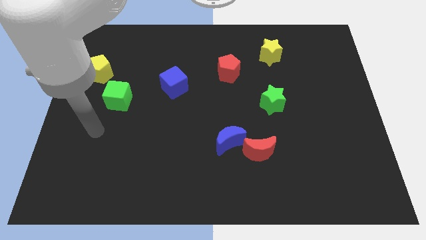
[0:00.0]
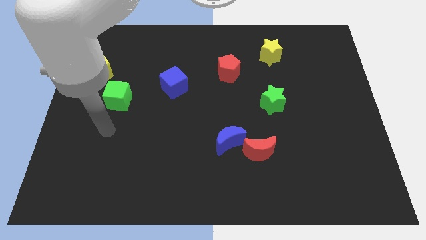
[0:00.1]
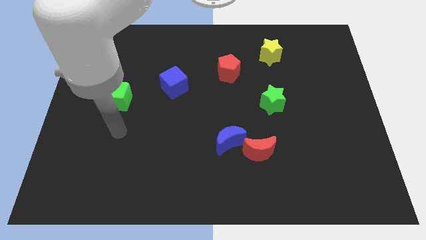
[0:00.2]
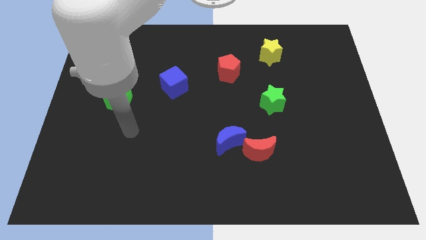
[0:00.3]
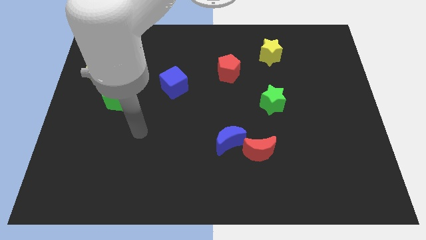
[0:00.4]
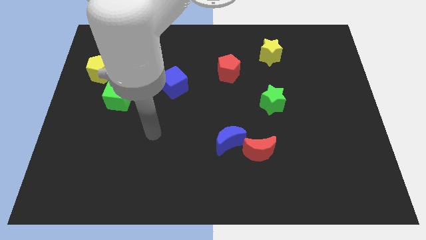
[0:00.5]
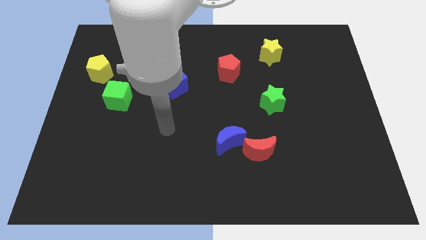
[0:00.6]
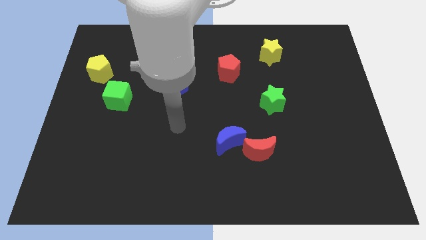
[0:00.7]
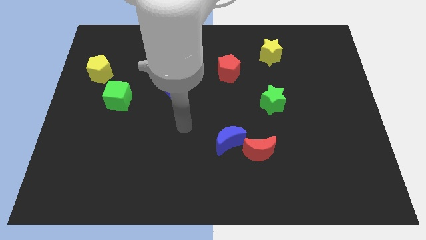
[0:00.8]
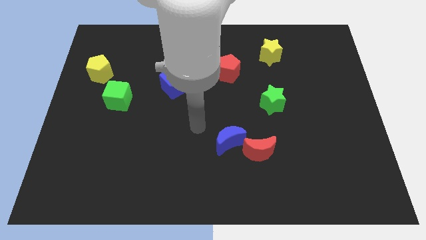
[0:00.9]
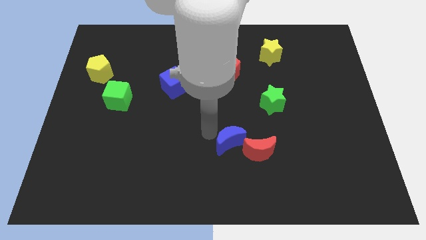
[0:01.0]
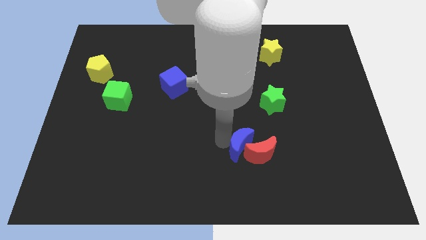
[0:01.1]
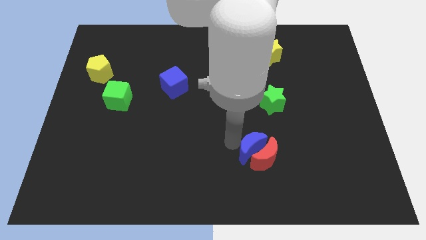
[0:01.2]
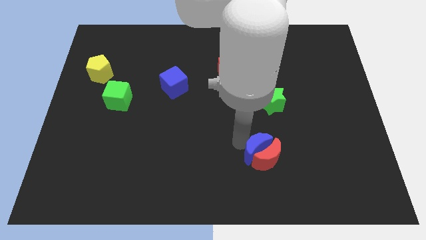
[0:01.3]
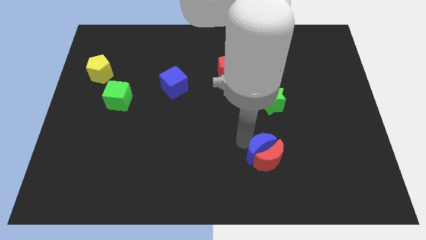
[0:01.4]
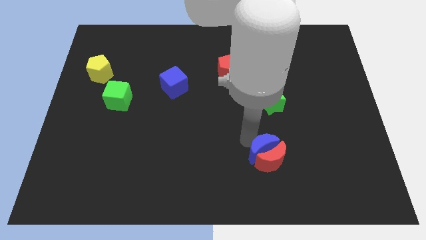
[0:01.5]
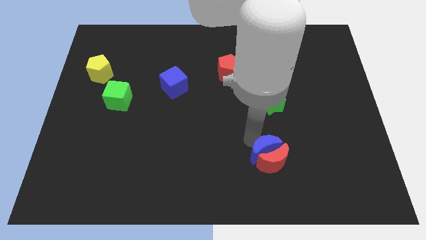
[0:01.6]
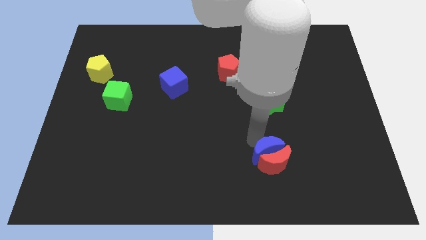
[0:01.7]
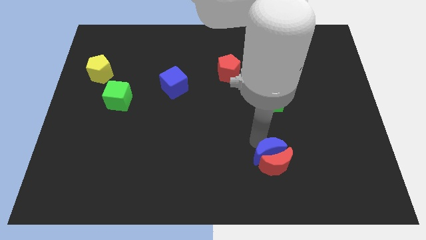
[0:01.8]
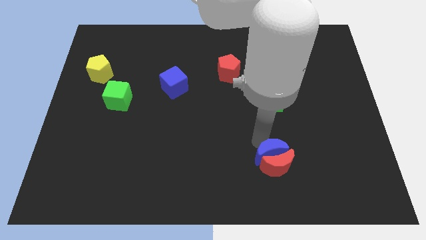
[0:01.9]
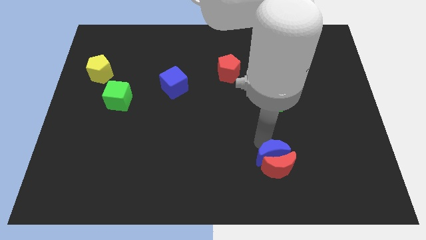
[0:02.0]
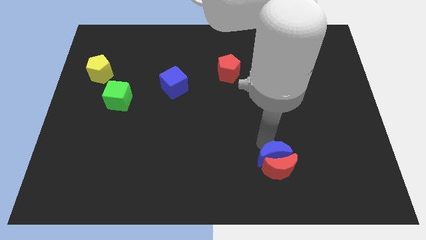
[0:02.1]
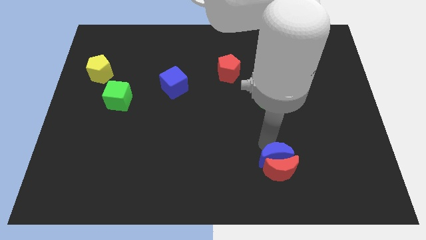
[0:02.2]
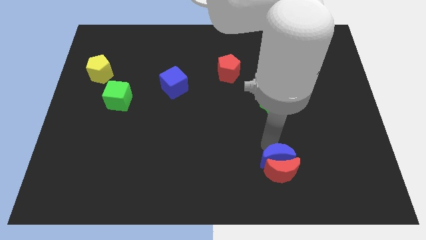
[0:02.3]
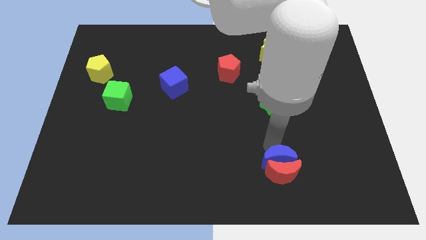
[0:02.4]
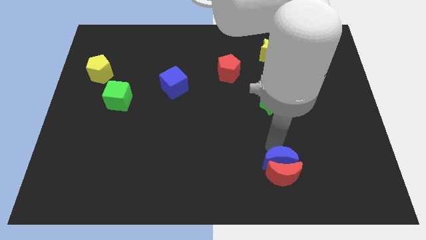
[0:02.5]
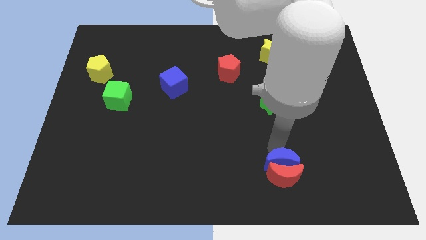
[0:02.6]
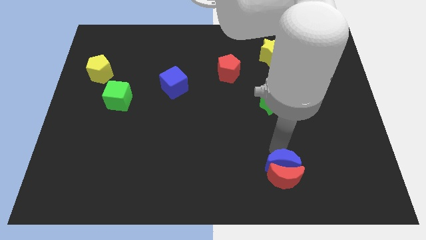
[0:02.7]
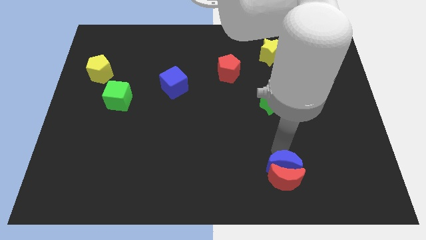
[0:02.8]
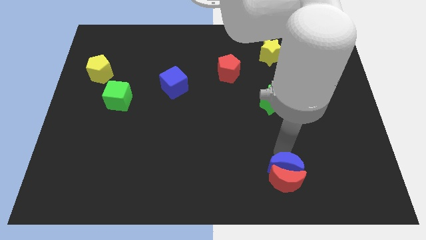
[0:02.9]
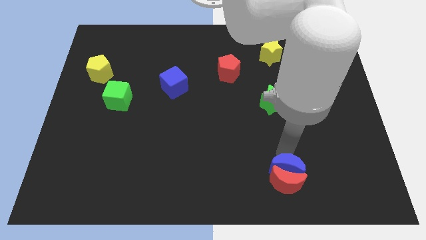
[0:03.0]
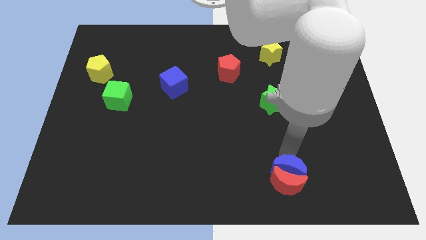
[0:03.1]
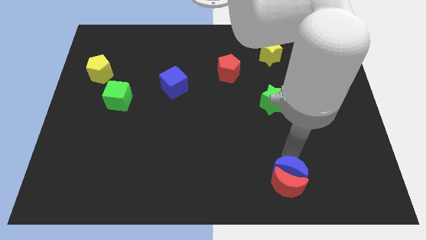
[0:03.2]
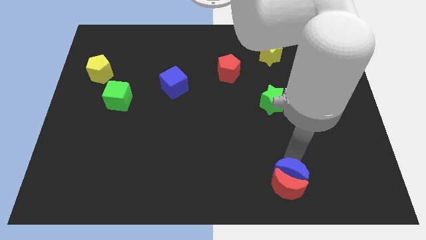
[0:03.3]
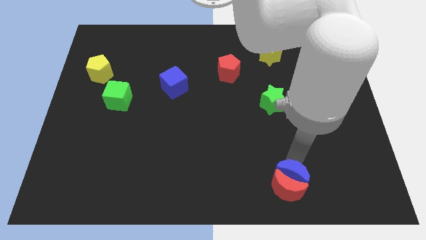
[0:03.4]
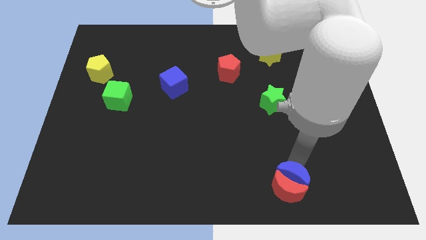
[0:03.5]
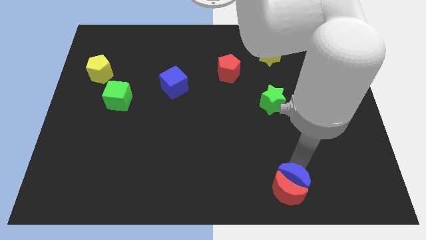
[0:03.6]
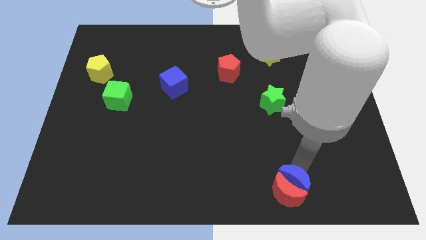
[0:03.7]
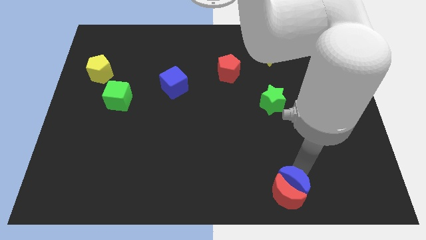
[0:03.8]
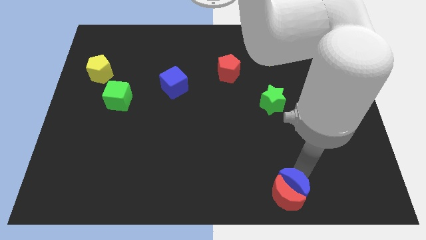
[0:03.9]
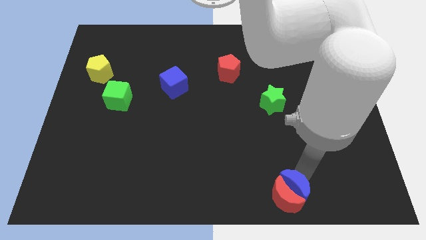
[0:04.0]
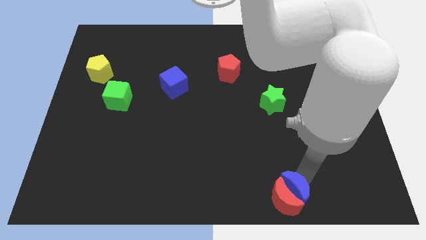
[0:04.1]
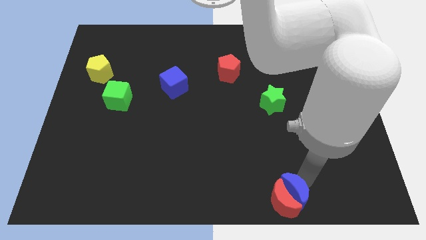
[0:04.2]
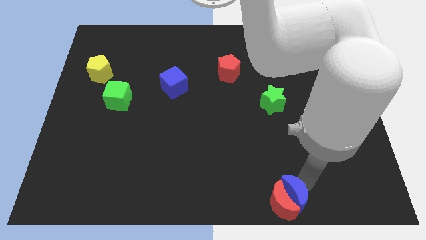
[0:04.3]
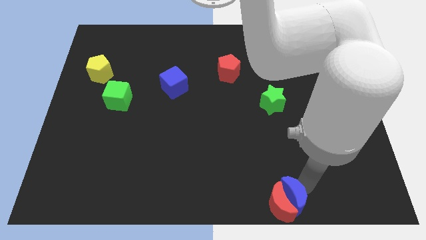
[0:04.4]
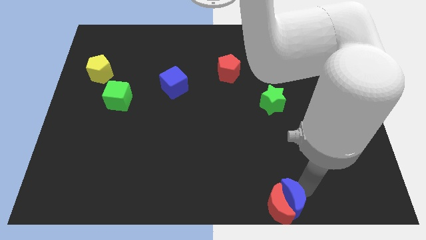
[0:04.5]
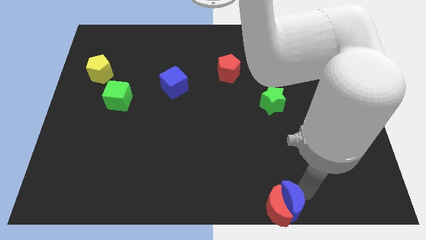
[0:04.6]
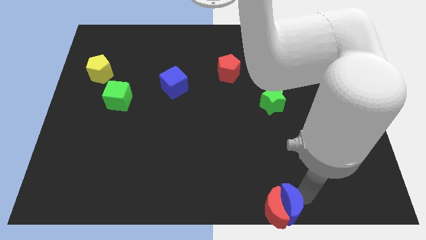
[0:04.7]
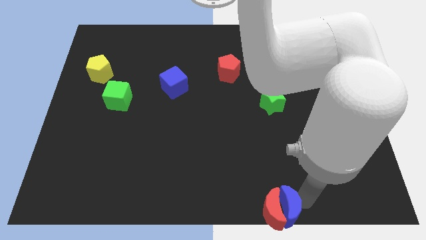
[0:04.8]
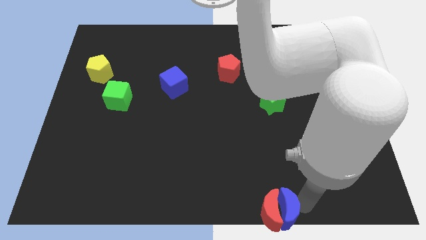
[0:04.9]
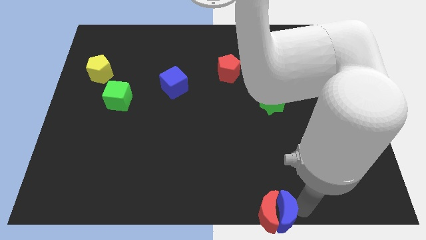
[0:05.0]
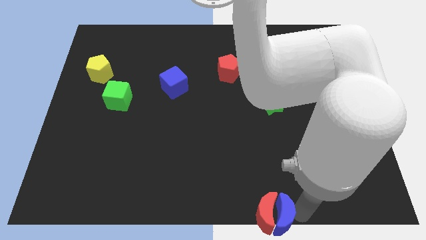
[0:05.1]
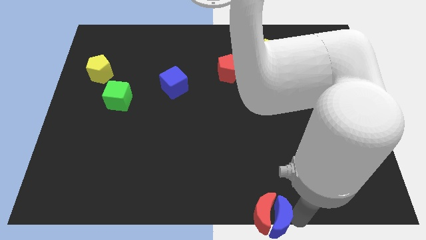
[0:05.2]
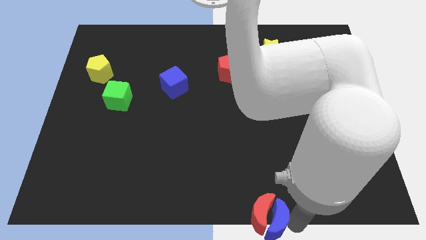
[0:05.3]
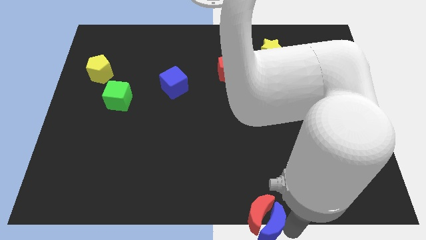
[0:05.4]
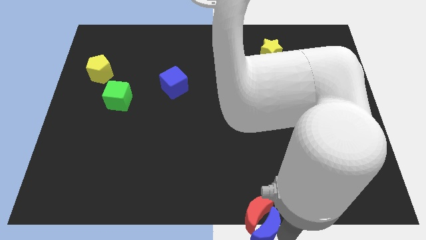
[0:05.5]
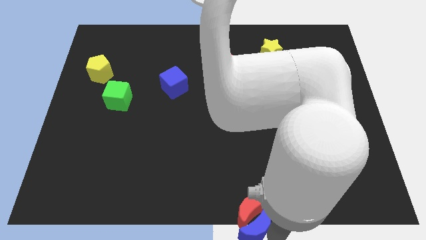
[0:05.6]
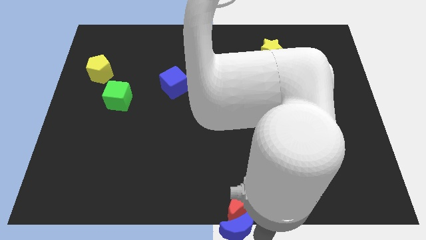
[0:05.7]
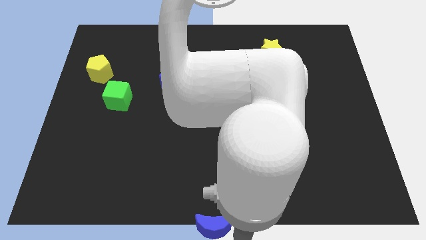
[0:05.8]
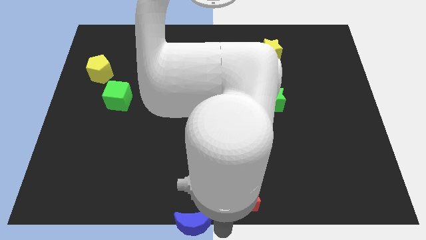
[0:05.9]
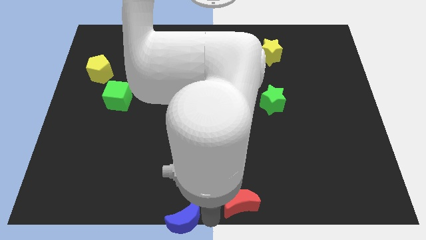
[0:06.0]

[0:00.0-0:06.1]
pull the red moon apart from the blue moon

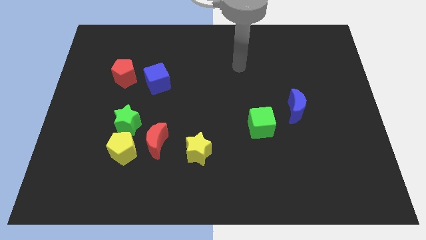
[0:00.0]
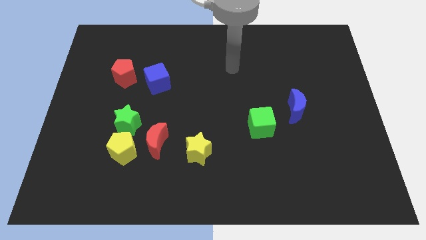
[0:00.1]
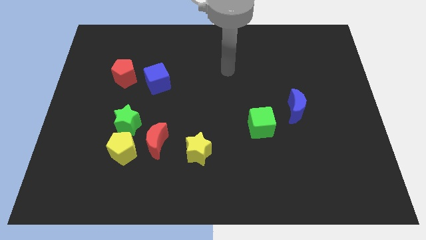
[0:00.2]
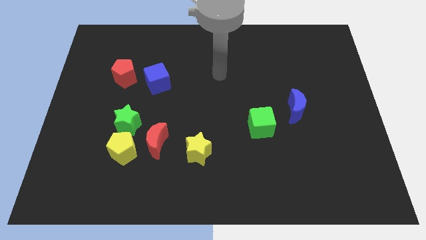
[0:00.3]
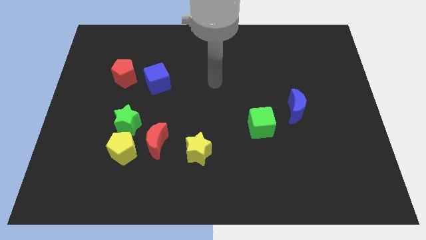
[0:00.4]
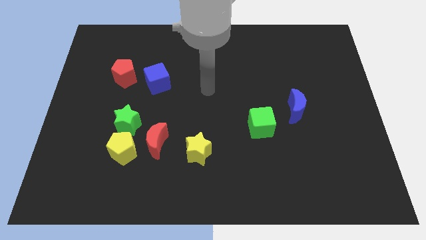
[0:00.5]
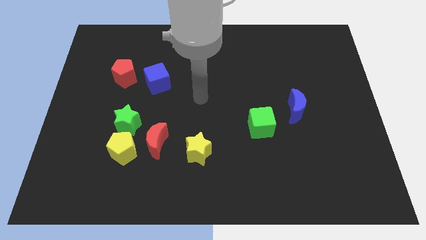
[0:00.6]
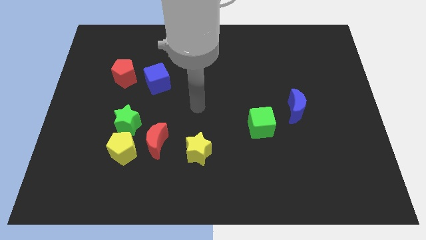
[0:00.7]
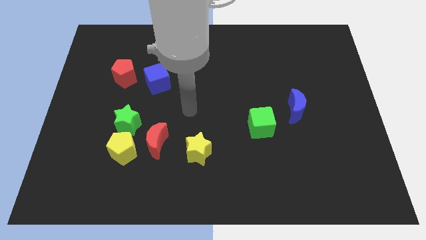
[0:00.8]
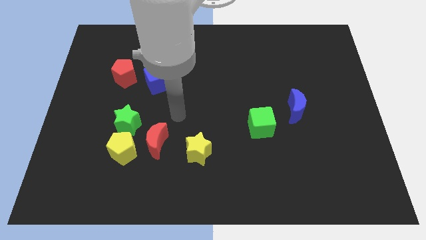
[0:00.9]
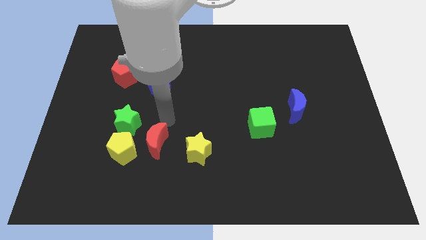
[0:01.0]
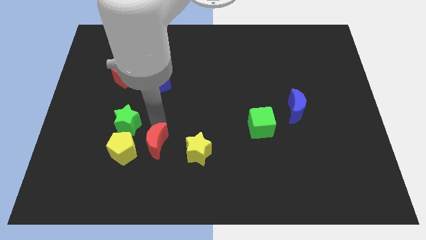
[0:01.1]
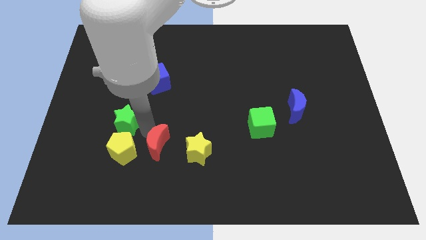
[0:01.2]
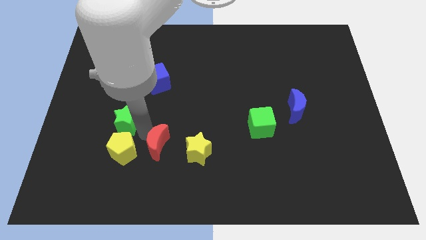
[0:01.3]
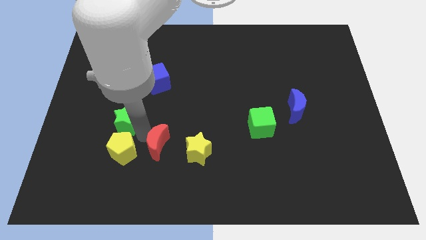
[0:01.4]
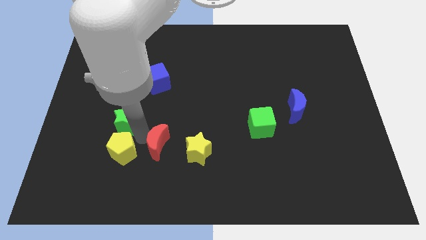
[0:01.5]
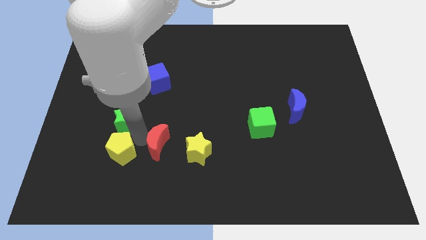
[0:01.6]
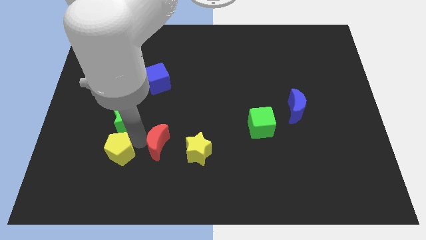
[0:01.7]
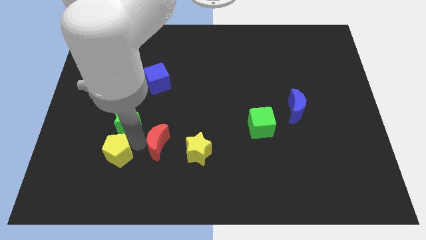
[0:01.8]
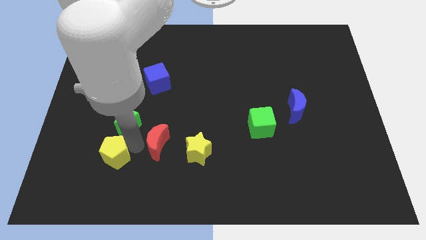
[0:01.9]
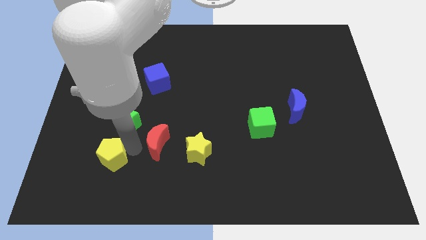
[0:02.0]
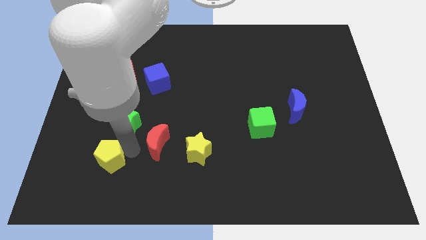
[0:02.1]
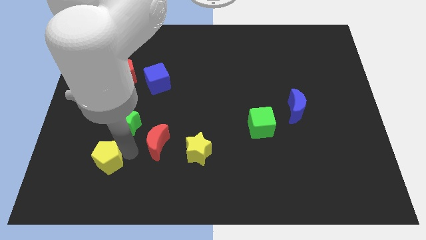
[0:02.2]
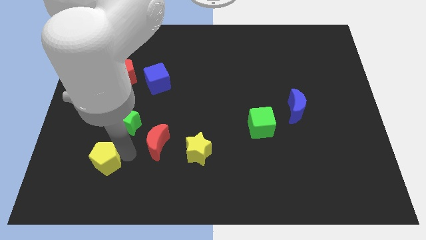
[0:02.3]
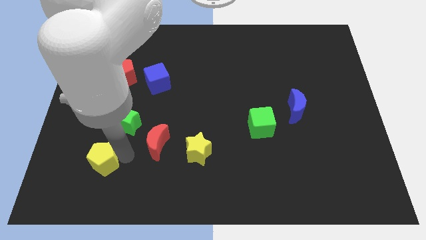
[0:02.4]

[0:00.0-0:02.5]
separate the yellow pentagon from the green star and red moon

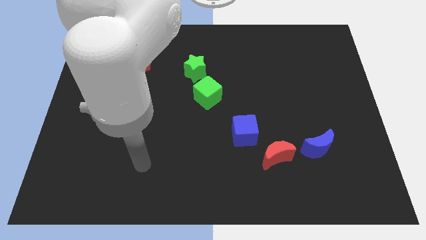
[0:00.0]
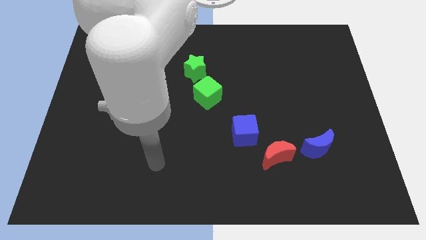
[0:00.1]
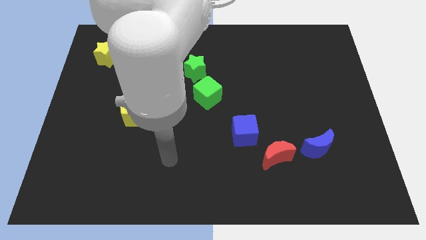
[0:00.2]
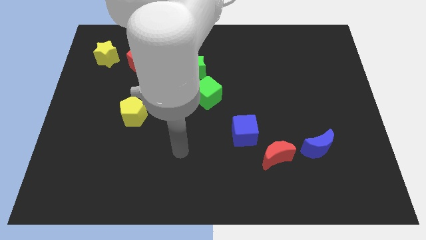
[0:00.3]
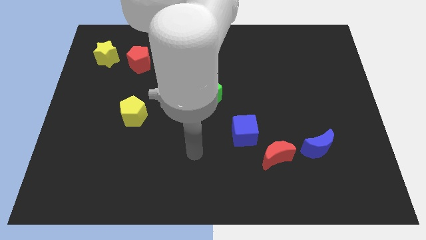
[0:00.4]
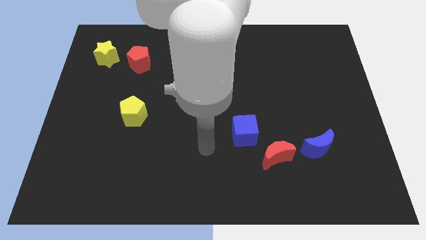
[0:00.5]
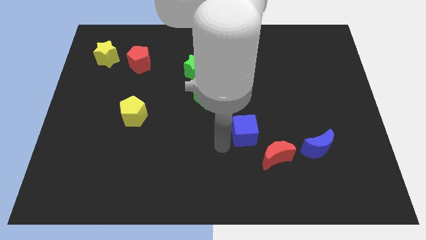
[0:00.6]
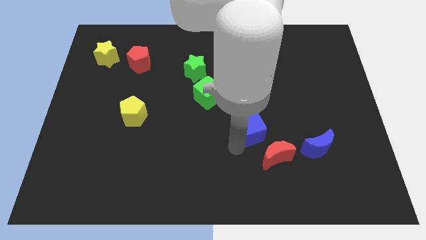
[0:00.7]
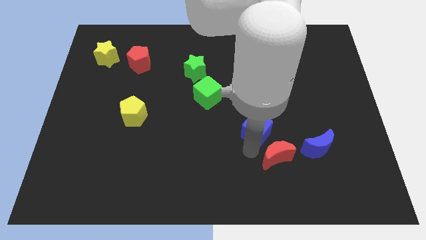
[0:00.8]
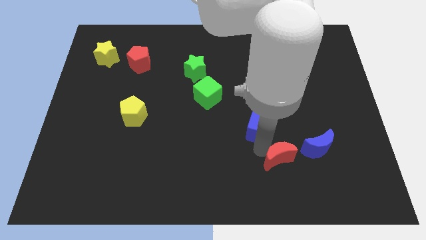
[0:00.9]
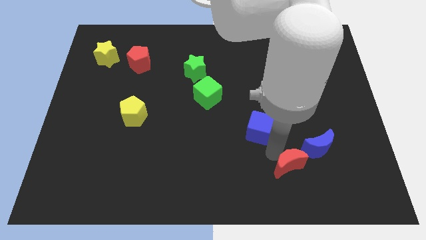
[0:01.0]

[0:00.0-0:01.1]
move the blue cube away from the red moon
